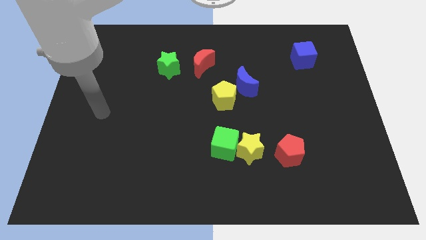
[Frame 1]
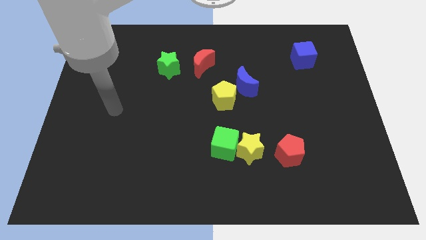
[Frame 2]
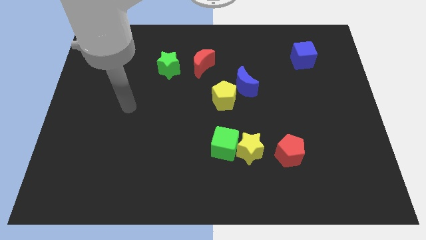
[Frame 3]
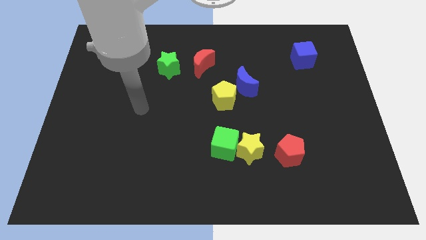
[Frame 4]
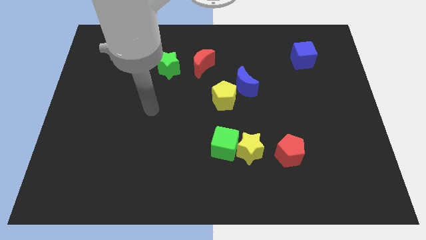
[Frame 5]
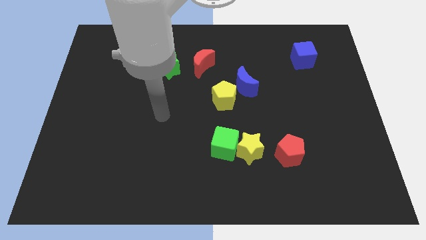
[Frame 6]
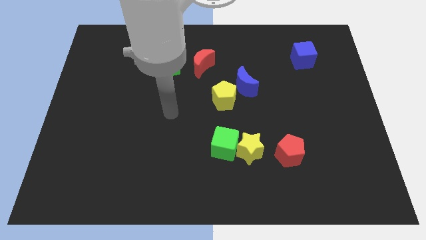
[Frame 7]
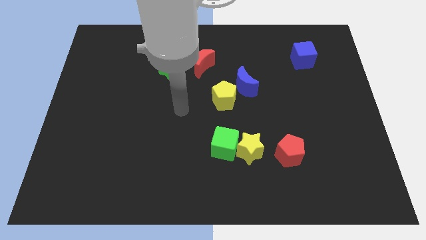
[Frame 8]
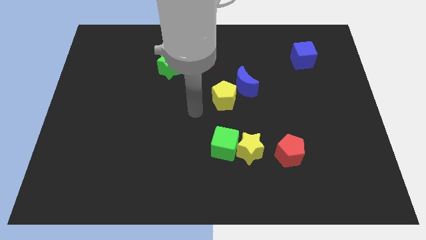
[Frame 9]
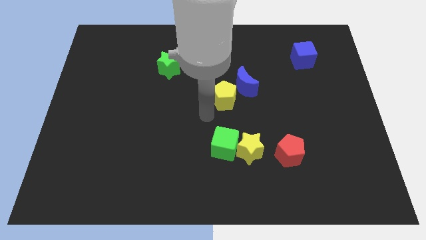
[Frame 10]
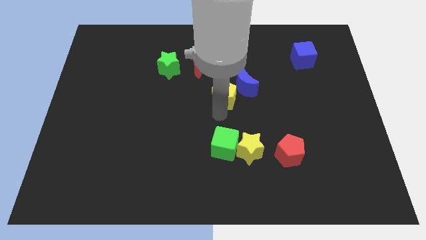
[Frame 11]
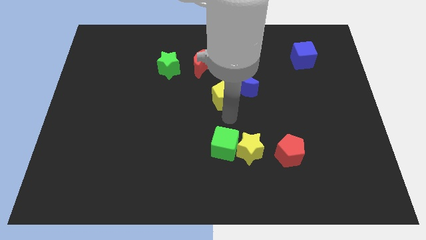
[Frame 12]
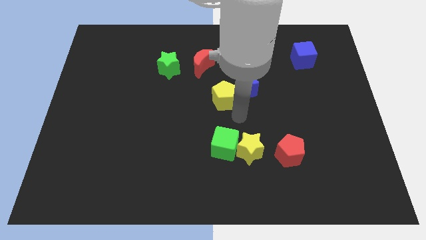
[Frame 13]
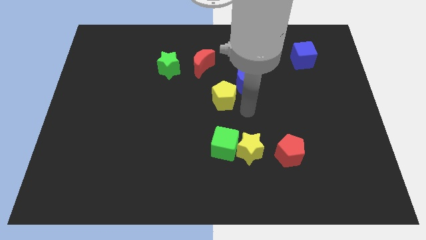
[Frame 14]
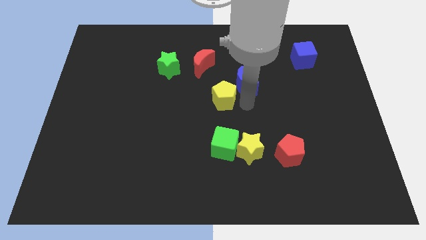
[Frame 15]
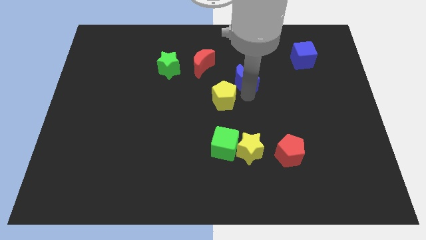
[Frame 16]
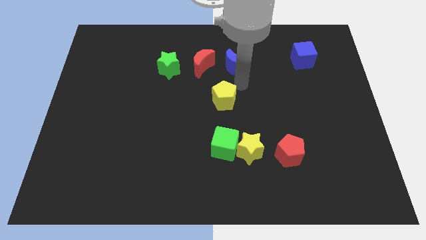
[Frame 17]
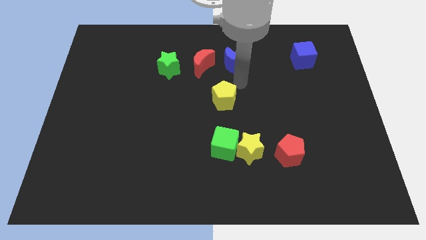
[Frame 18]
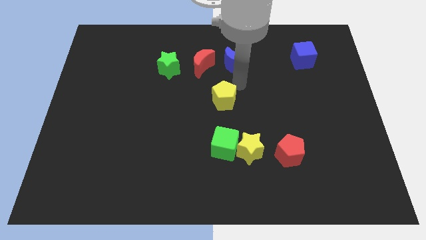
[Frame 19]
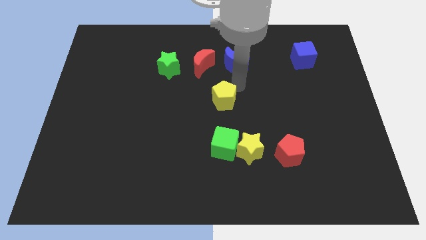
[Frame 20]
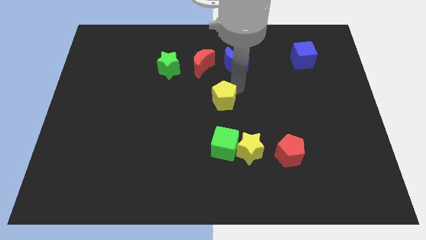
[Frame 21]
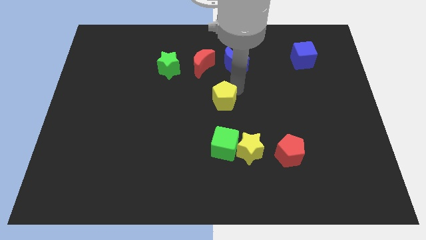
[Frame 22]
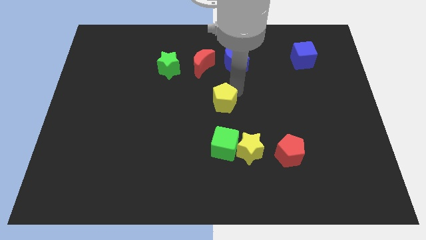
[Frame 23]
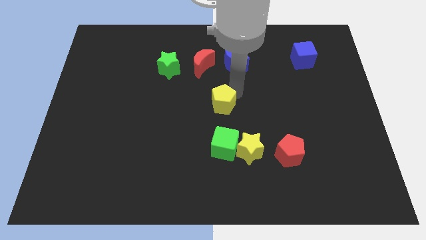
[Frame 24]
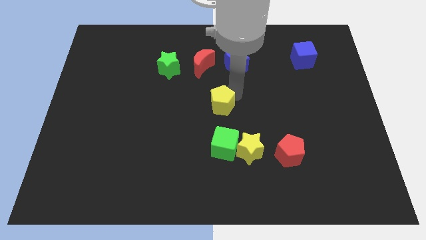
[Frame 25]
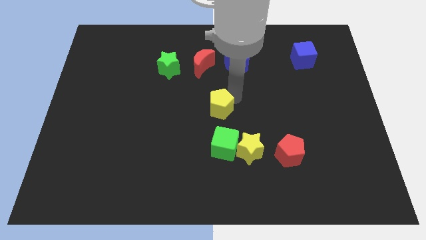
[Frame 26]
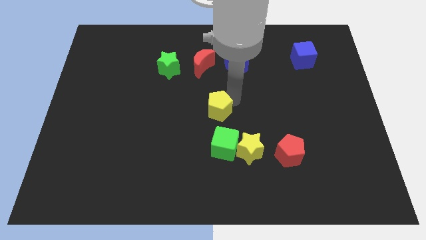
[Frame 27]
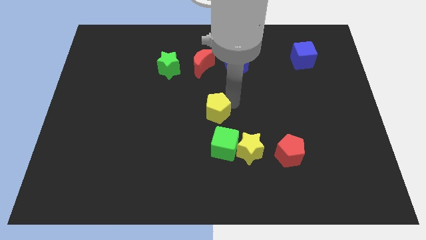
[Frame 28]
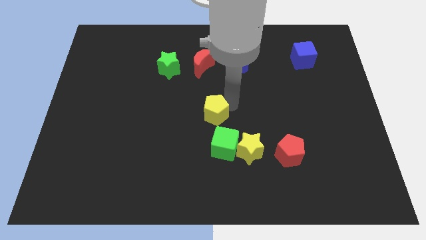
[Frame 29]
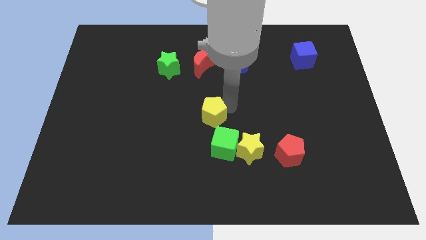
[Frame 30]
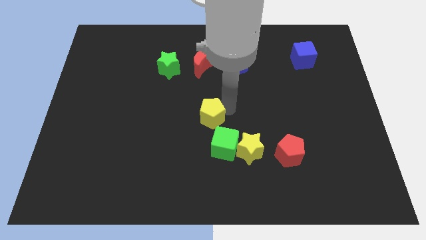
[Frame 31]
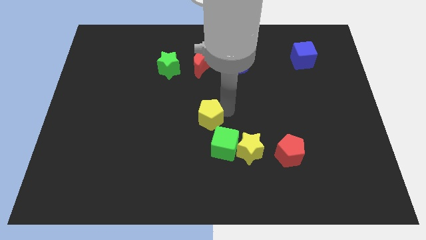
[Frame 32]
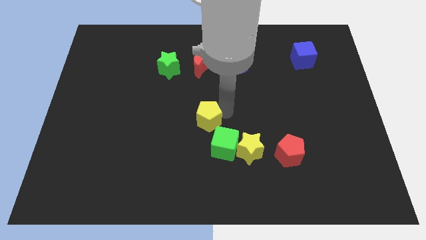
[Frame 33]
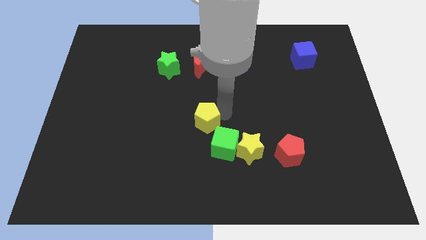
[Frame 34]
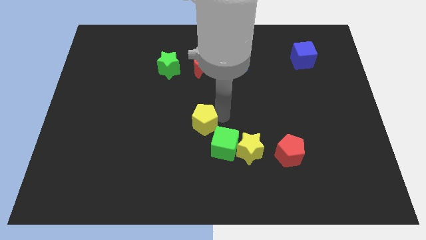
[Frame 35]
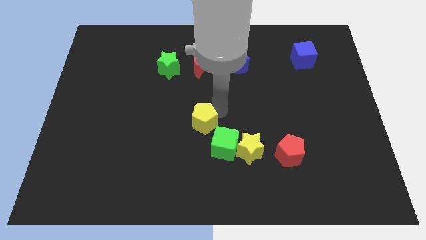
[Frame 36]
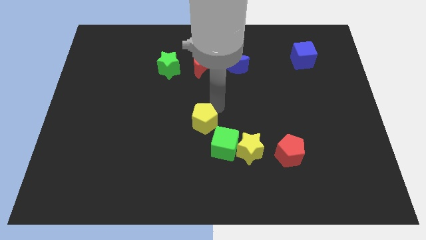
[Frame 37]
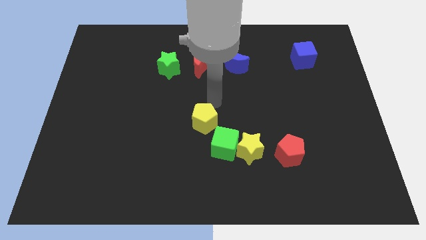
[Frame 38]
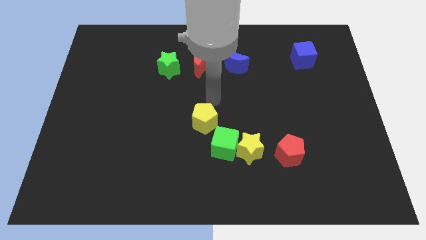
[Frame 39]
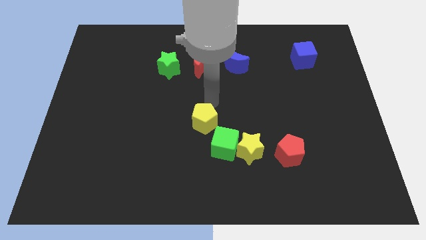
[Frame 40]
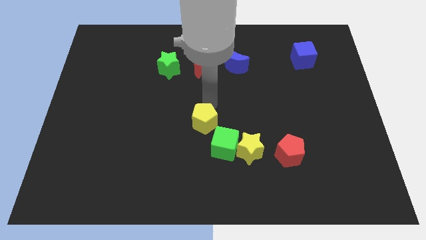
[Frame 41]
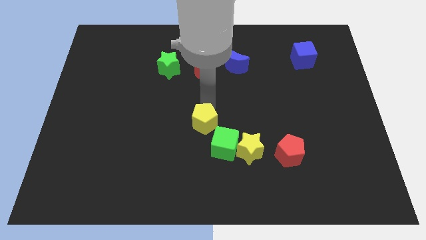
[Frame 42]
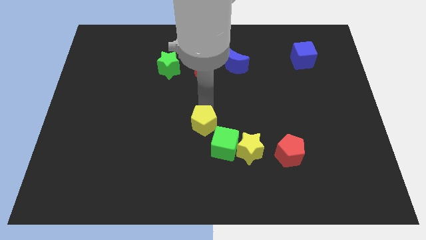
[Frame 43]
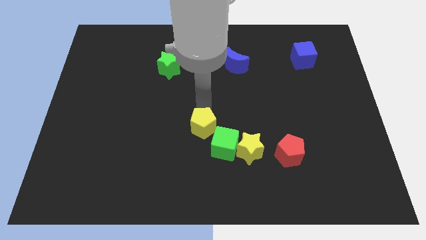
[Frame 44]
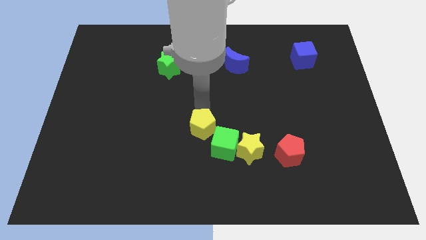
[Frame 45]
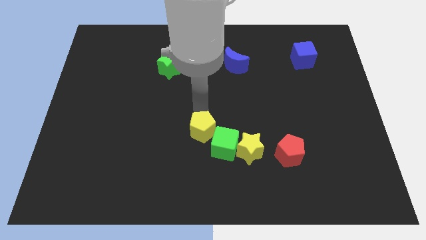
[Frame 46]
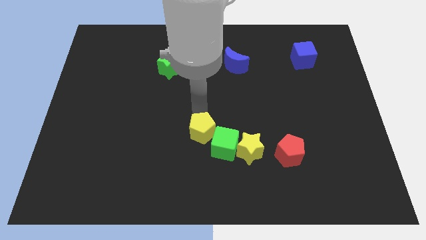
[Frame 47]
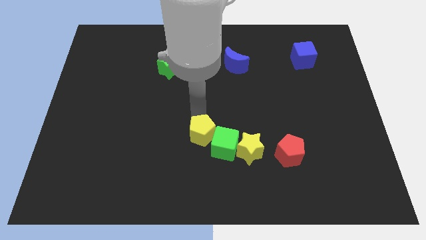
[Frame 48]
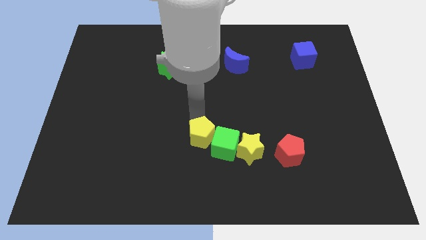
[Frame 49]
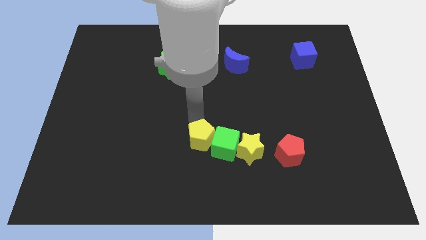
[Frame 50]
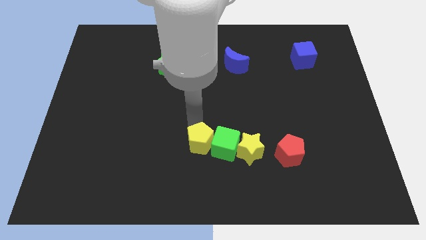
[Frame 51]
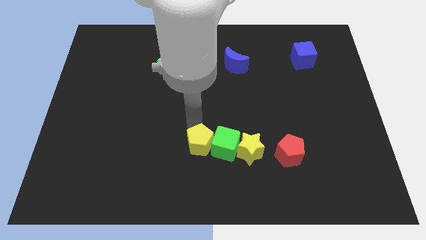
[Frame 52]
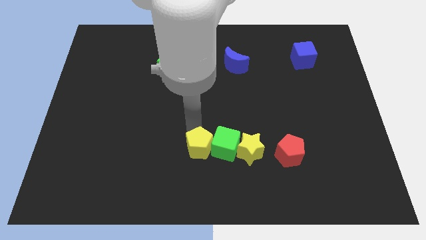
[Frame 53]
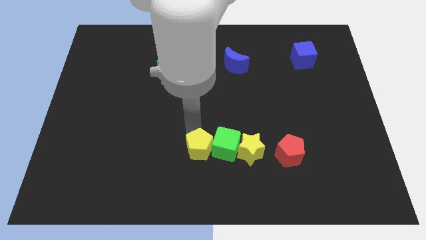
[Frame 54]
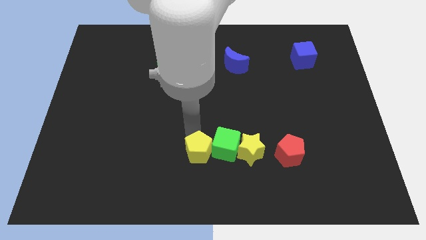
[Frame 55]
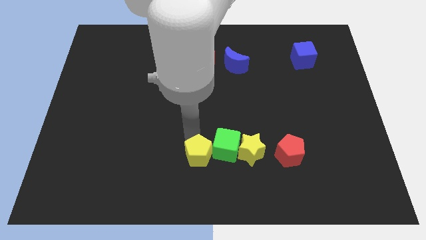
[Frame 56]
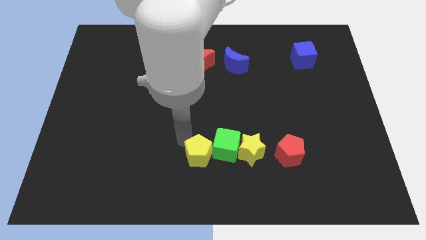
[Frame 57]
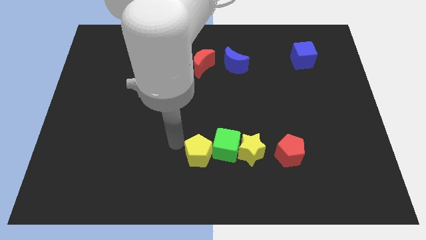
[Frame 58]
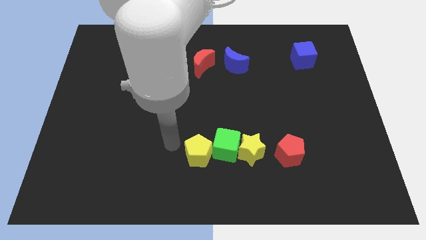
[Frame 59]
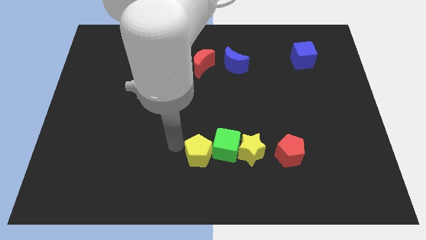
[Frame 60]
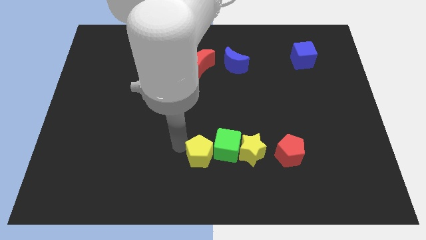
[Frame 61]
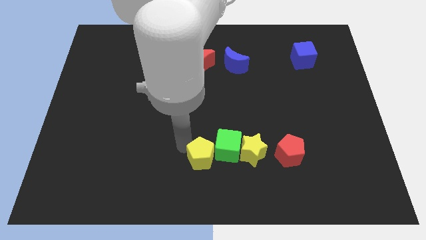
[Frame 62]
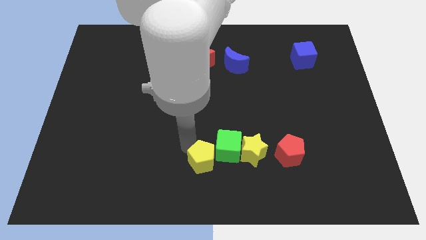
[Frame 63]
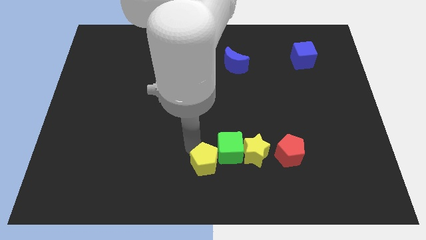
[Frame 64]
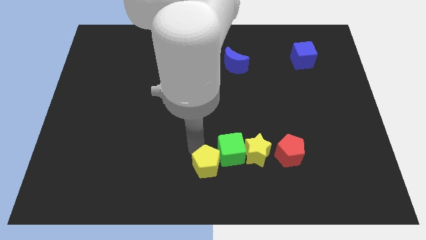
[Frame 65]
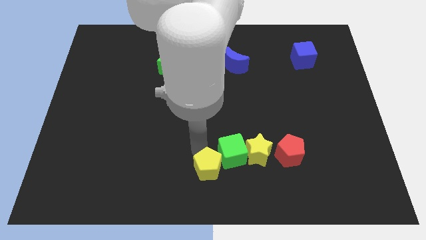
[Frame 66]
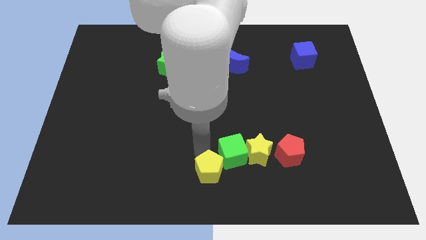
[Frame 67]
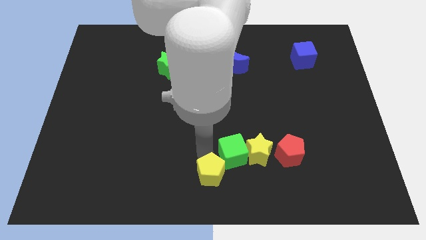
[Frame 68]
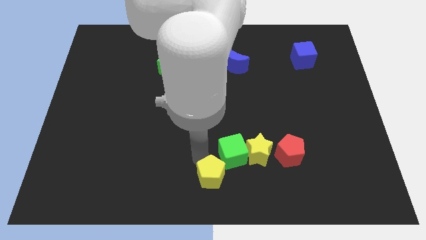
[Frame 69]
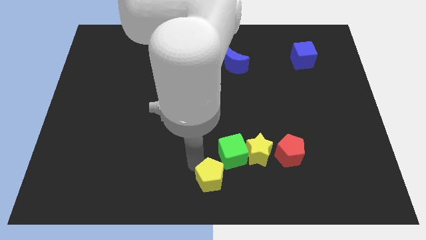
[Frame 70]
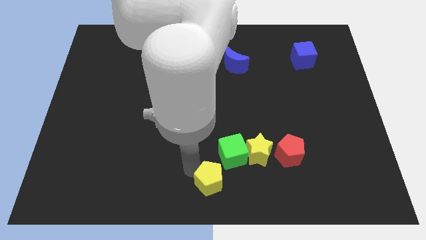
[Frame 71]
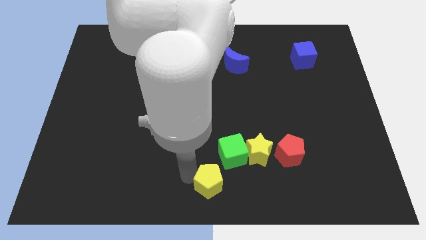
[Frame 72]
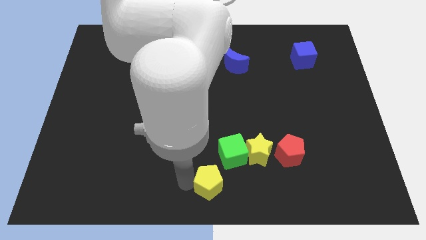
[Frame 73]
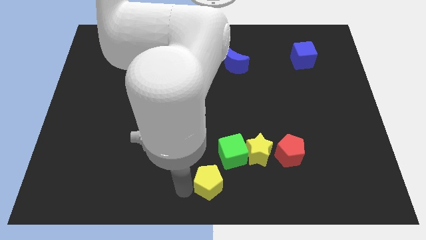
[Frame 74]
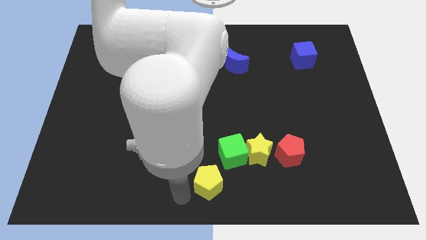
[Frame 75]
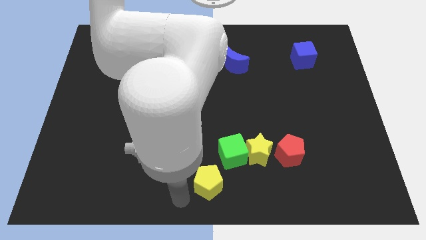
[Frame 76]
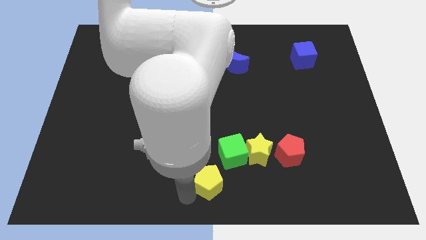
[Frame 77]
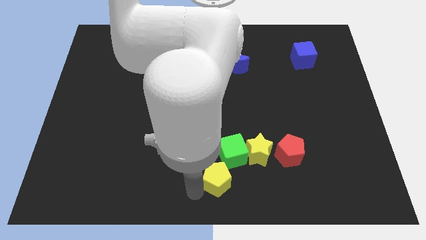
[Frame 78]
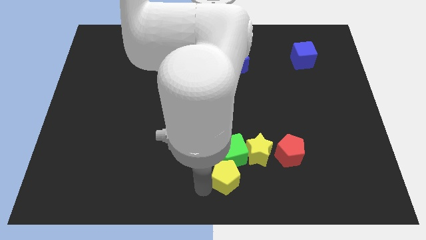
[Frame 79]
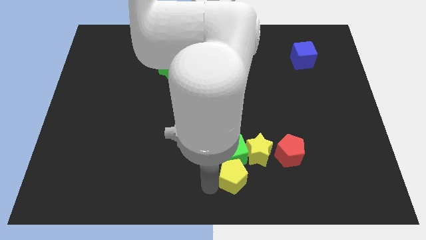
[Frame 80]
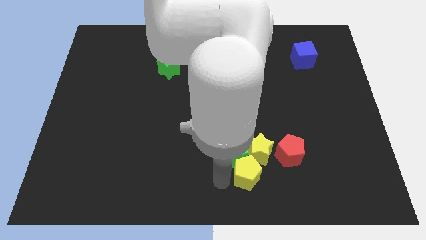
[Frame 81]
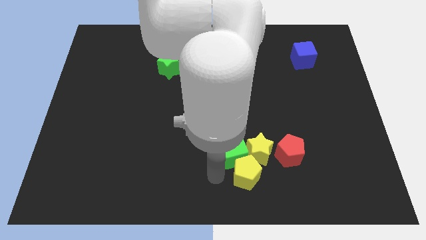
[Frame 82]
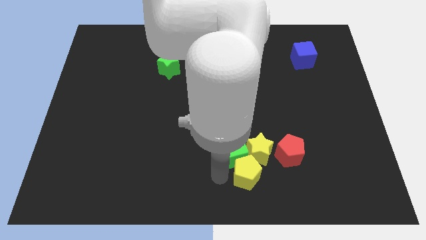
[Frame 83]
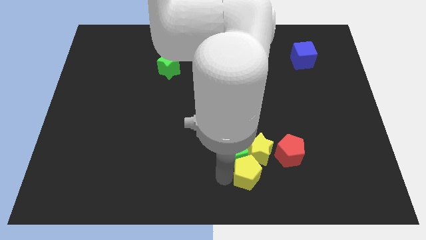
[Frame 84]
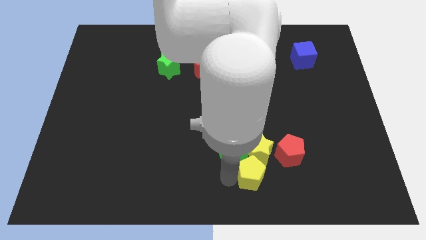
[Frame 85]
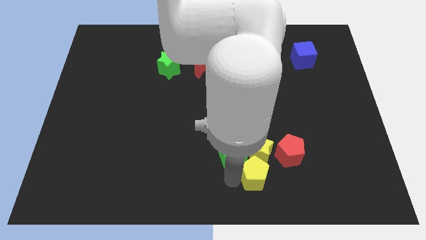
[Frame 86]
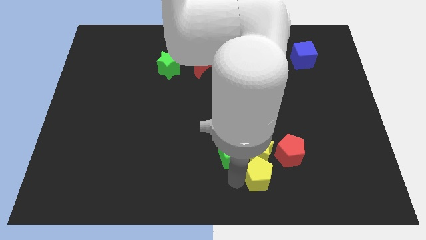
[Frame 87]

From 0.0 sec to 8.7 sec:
push the yellow pentagon to the bottom right side of the yellow star
